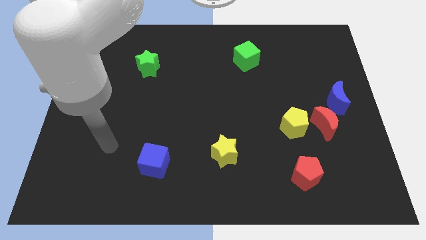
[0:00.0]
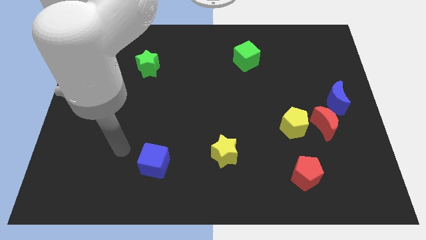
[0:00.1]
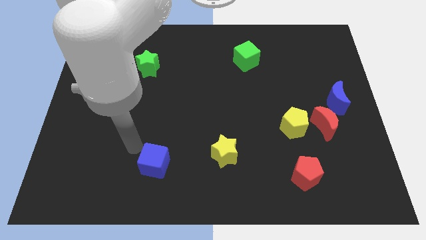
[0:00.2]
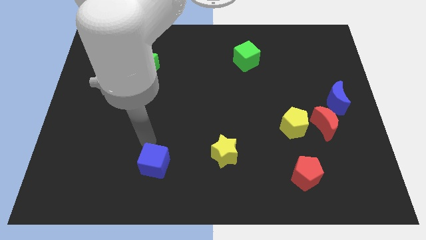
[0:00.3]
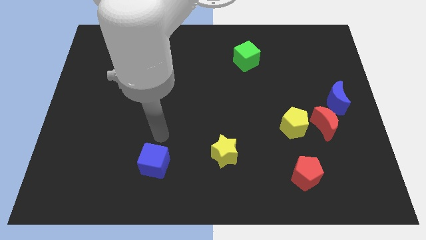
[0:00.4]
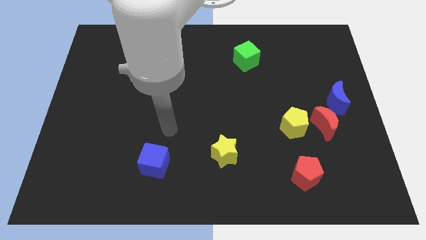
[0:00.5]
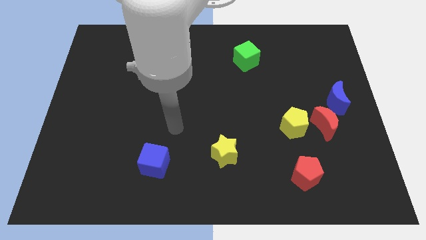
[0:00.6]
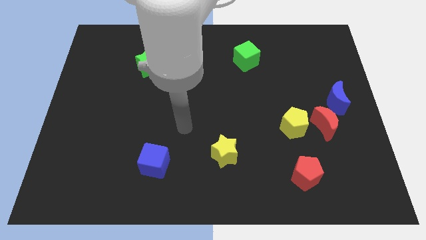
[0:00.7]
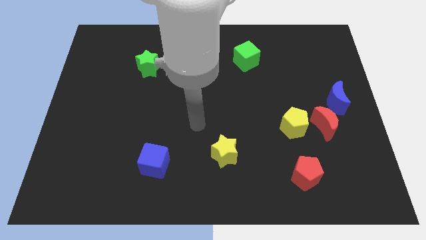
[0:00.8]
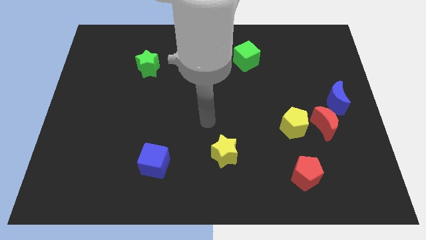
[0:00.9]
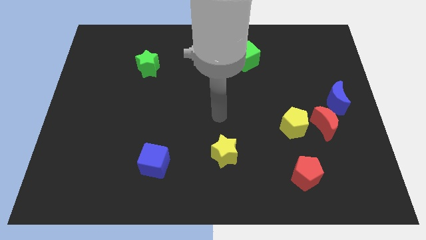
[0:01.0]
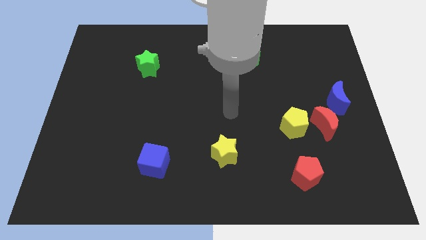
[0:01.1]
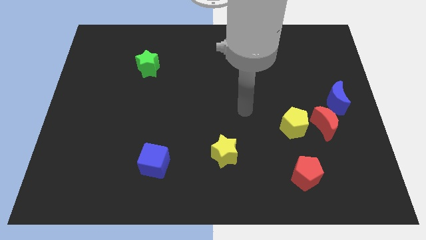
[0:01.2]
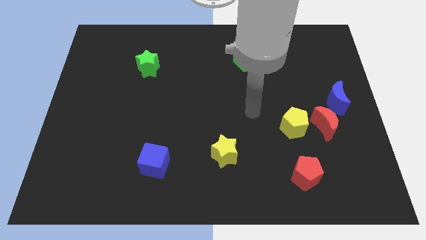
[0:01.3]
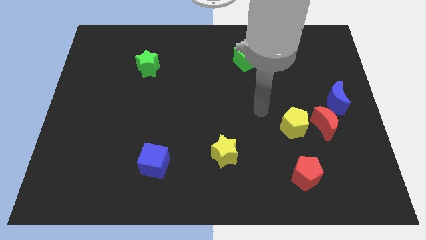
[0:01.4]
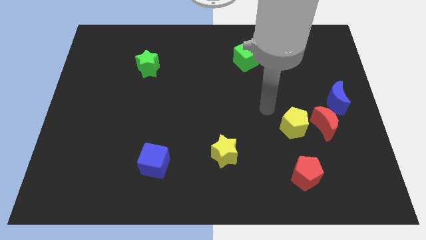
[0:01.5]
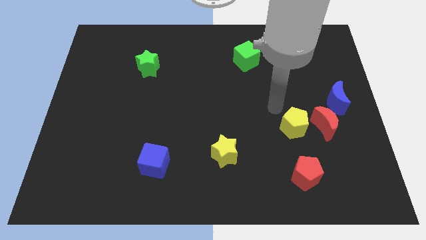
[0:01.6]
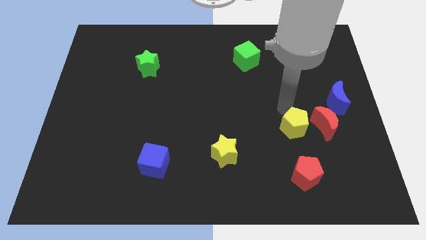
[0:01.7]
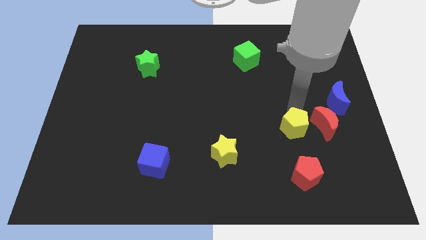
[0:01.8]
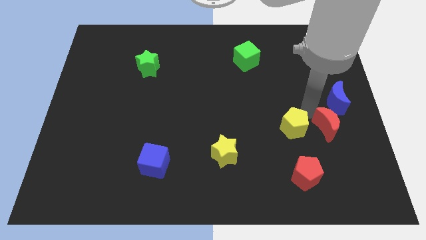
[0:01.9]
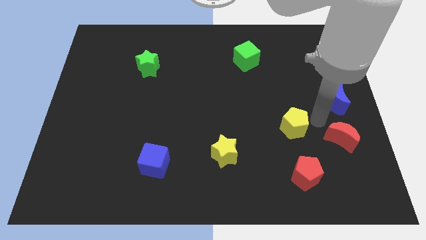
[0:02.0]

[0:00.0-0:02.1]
move the yellow pentagon away from the red moon

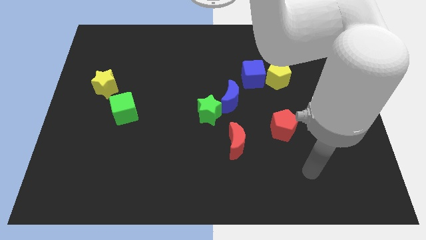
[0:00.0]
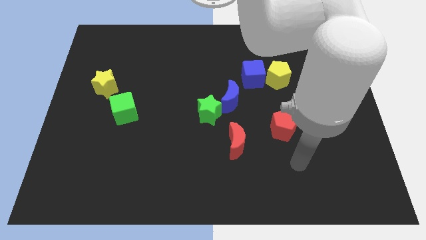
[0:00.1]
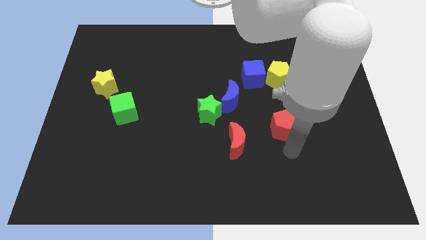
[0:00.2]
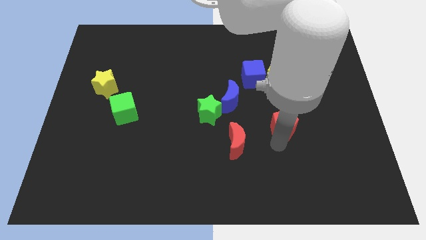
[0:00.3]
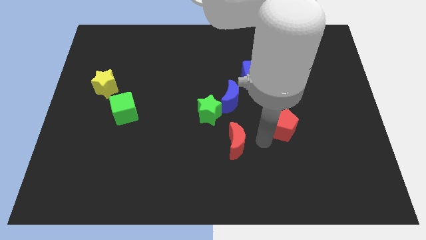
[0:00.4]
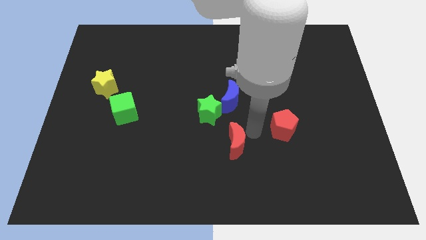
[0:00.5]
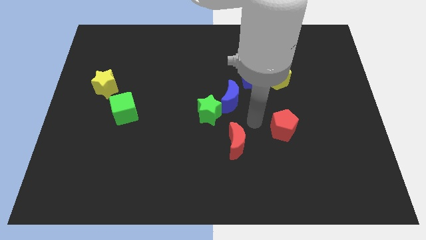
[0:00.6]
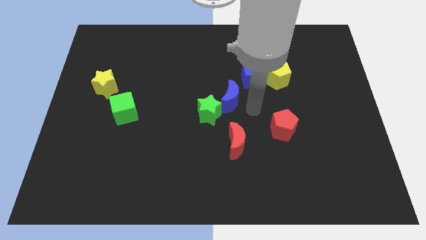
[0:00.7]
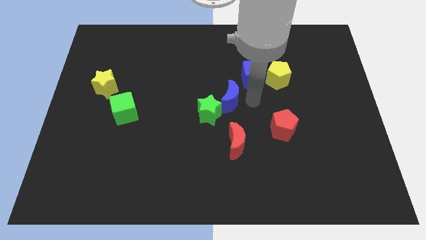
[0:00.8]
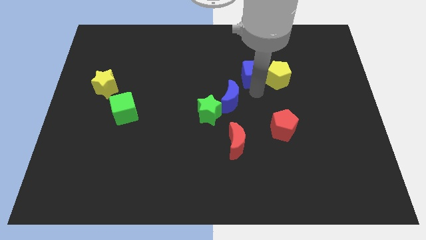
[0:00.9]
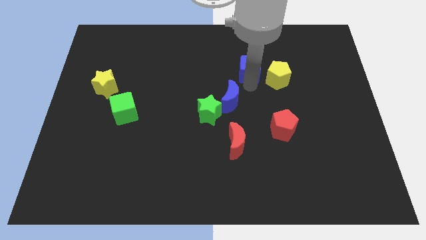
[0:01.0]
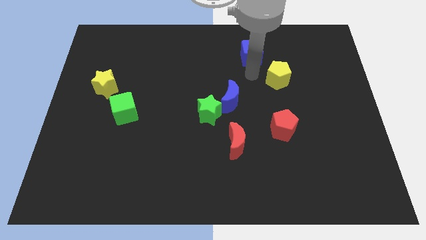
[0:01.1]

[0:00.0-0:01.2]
move the yellow pentagon away from the blue cube

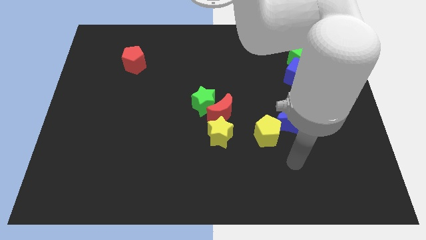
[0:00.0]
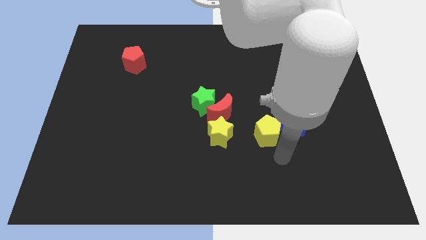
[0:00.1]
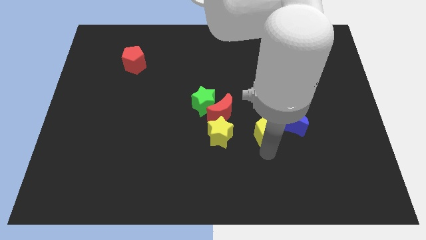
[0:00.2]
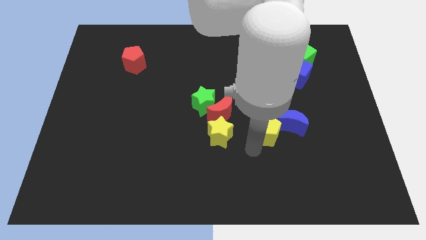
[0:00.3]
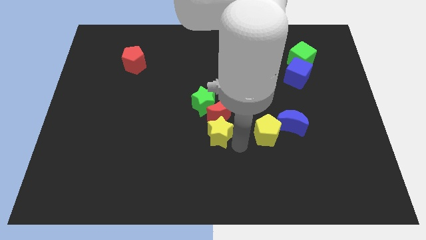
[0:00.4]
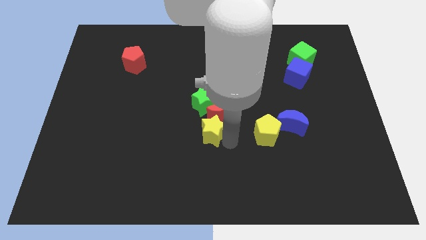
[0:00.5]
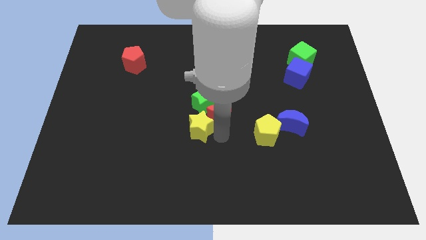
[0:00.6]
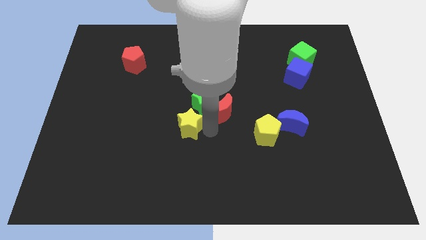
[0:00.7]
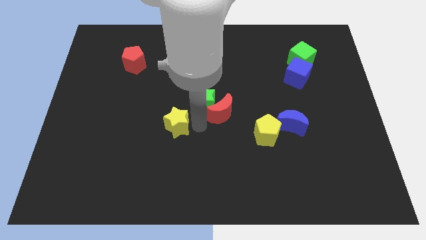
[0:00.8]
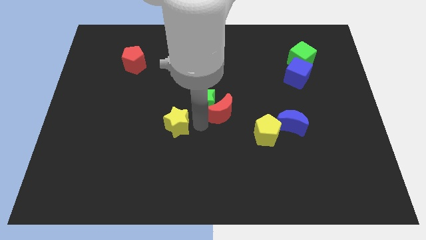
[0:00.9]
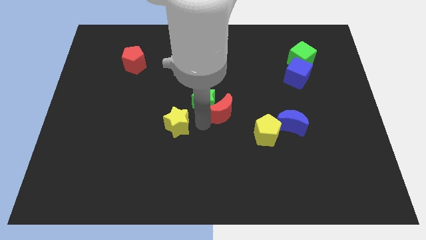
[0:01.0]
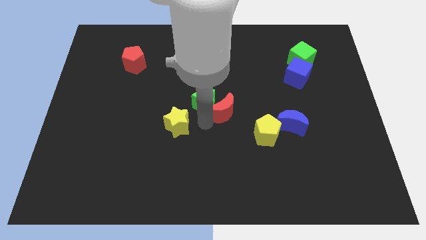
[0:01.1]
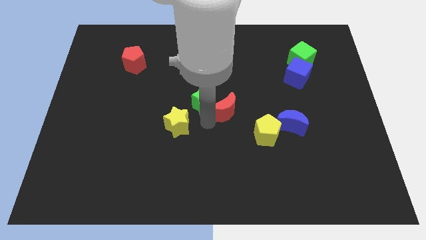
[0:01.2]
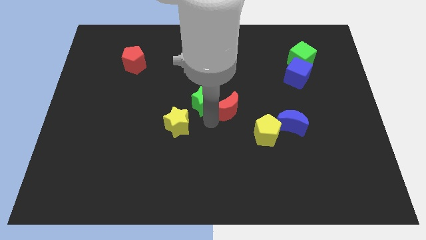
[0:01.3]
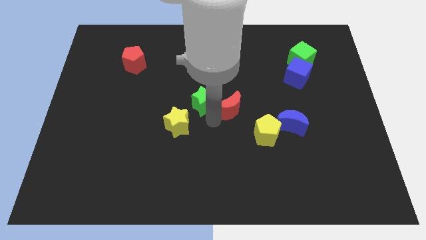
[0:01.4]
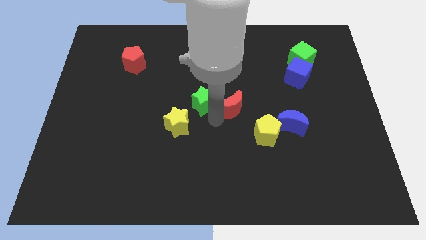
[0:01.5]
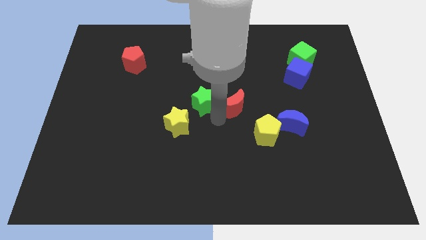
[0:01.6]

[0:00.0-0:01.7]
separate the red moon from the green star and yellow star

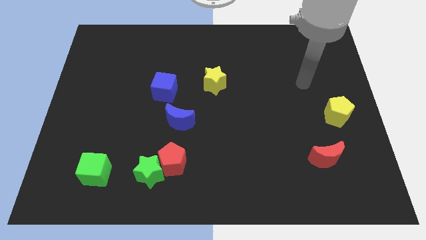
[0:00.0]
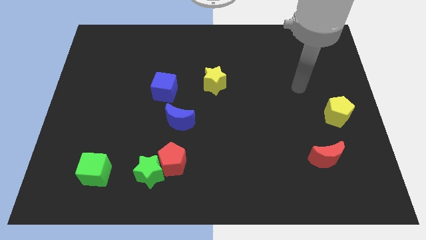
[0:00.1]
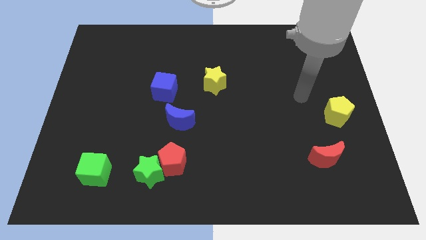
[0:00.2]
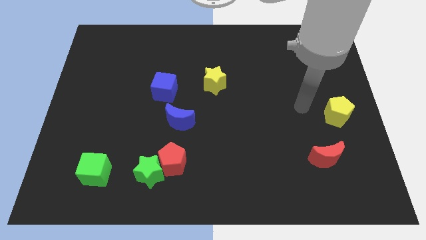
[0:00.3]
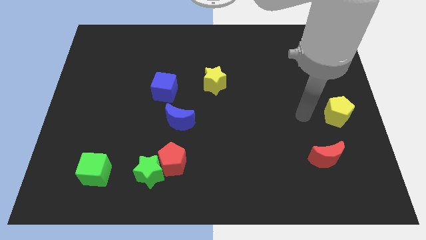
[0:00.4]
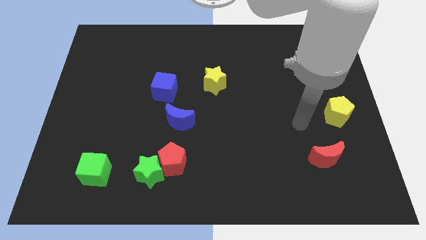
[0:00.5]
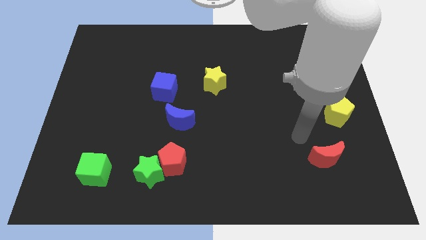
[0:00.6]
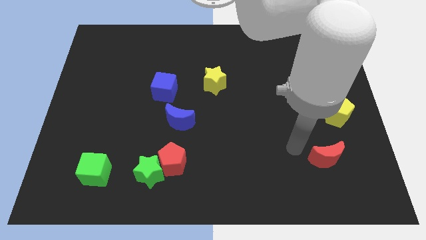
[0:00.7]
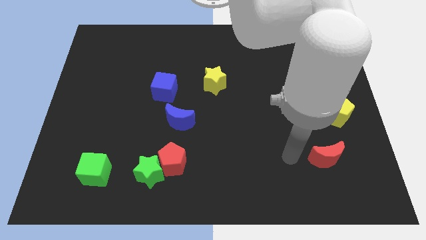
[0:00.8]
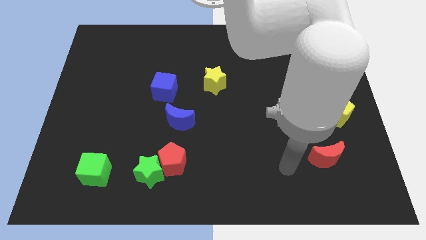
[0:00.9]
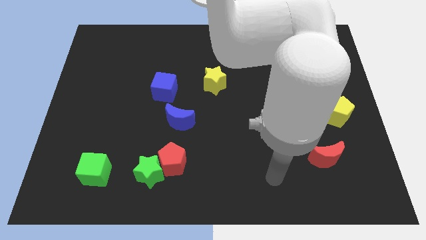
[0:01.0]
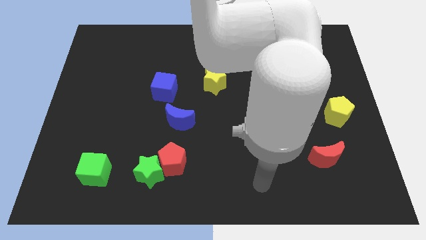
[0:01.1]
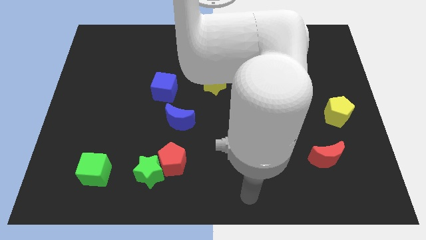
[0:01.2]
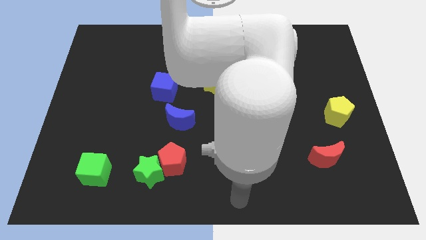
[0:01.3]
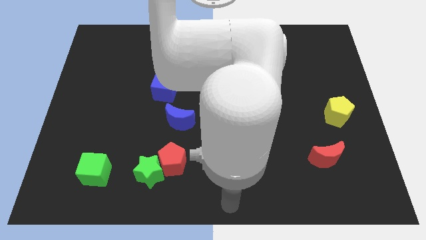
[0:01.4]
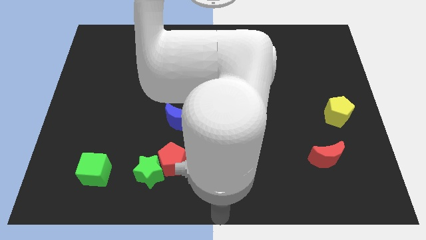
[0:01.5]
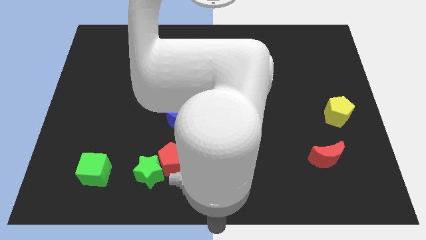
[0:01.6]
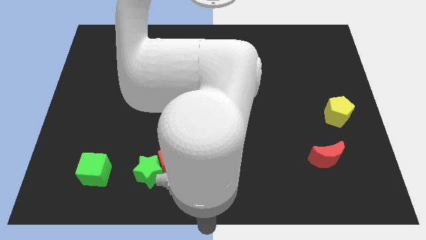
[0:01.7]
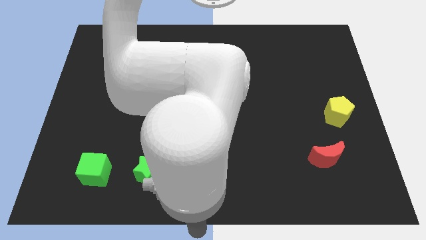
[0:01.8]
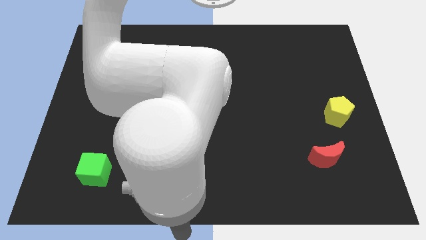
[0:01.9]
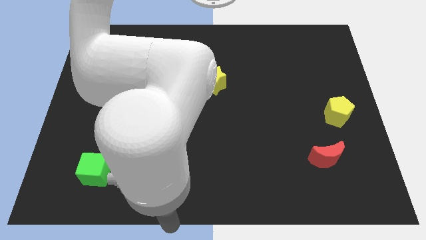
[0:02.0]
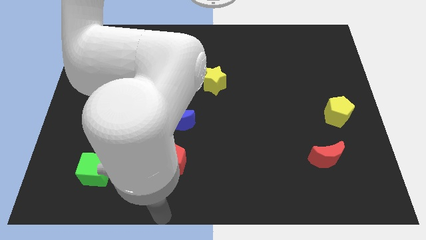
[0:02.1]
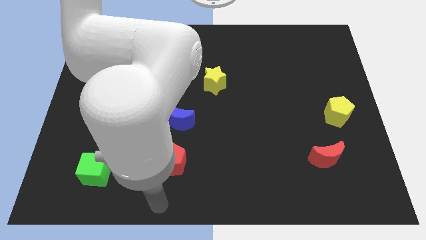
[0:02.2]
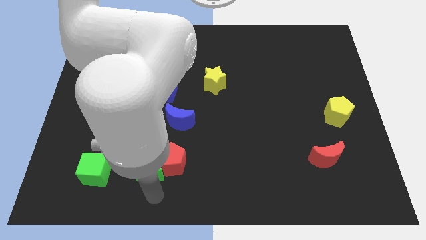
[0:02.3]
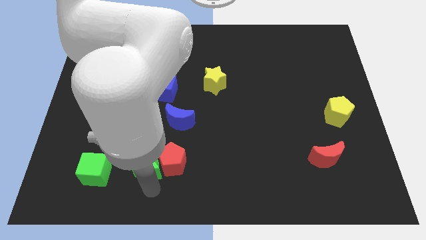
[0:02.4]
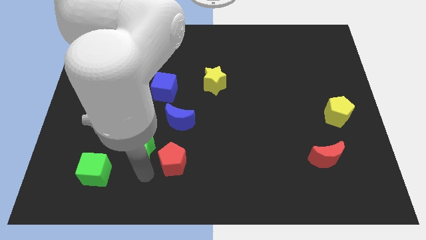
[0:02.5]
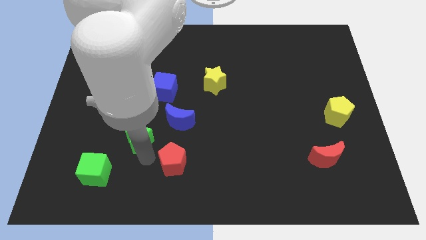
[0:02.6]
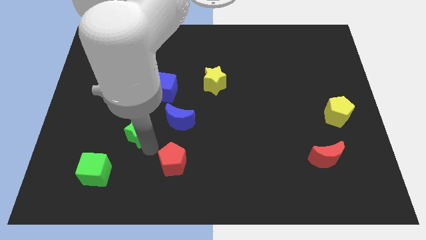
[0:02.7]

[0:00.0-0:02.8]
separate the red pentagon from the green star

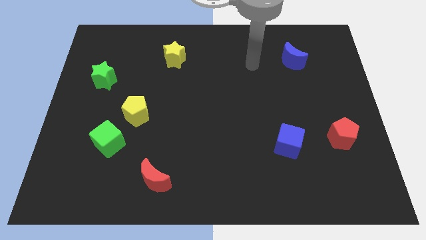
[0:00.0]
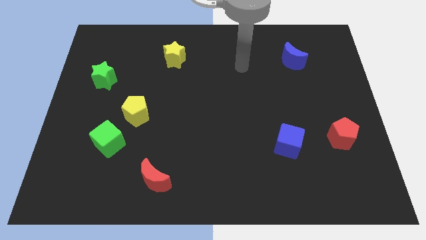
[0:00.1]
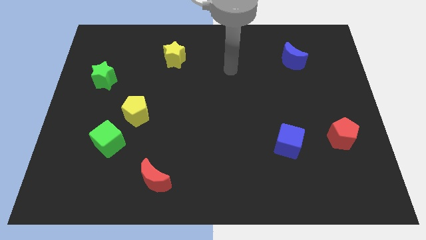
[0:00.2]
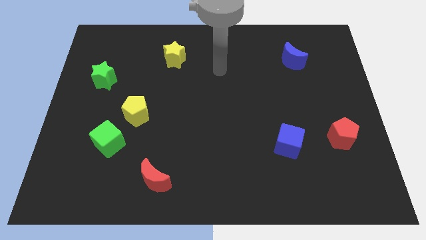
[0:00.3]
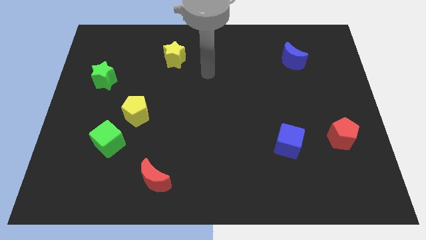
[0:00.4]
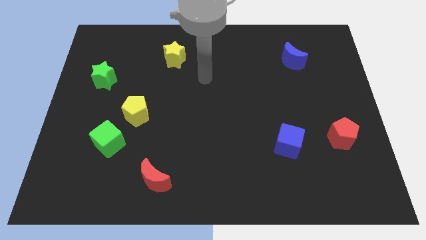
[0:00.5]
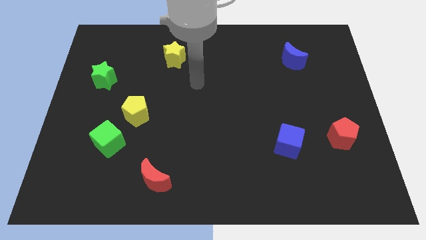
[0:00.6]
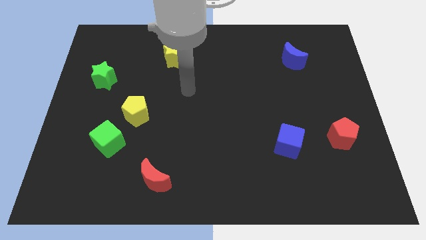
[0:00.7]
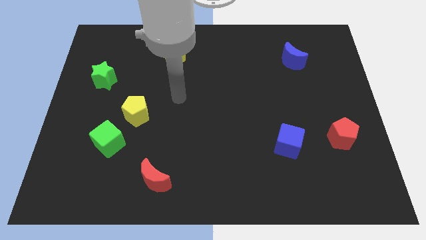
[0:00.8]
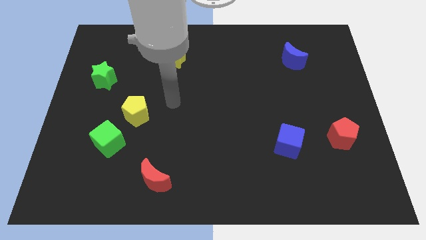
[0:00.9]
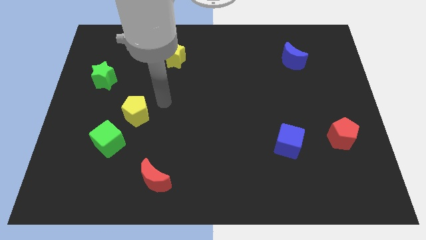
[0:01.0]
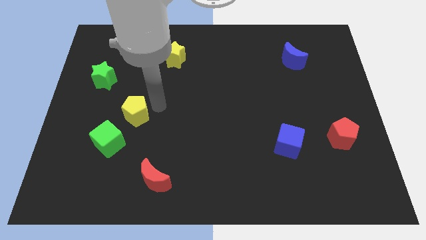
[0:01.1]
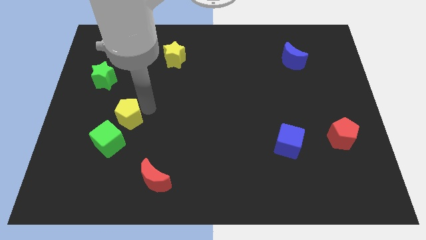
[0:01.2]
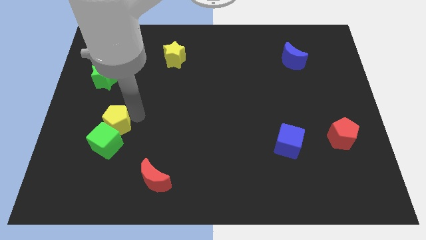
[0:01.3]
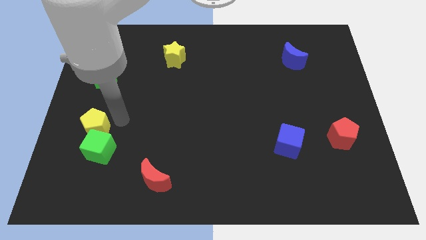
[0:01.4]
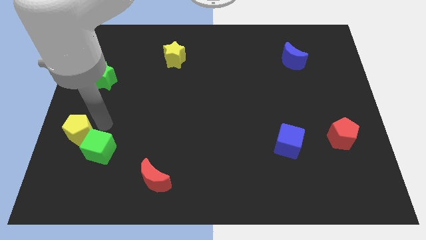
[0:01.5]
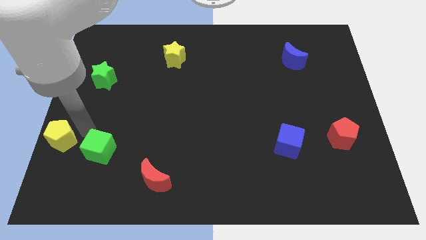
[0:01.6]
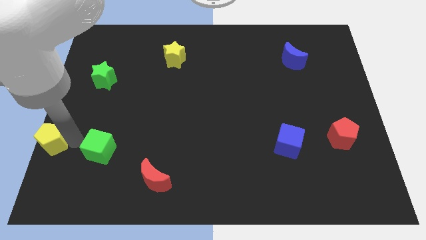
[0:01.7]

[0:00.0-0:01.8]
pull the green cube apart from the yellow pentagon
